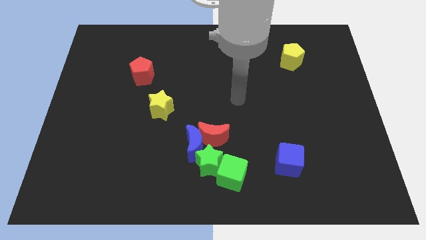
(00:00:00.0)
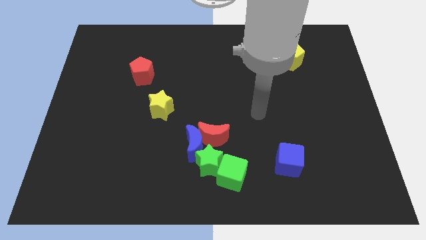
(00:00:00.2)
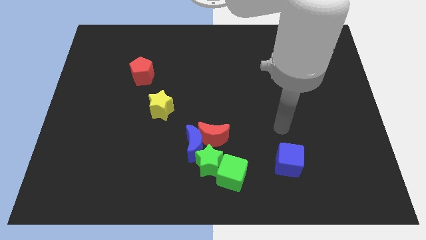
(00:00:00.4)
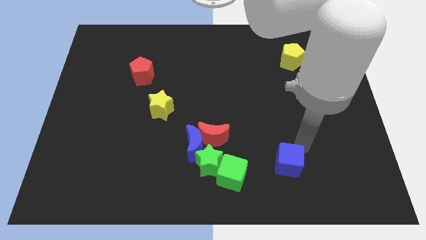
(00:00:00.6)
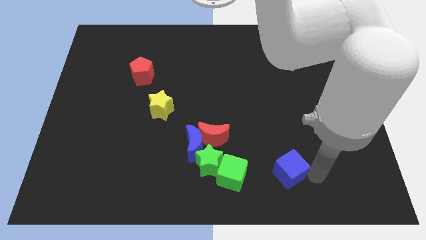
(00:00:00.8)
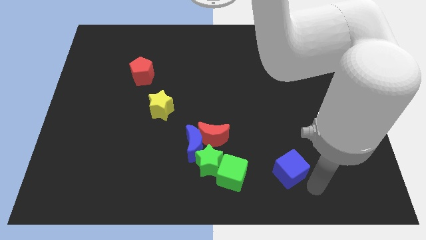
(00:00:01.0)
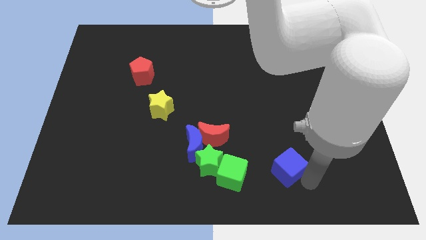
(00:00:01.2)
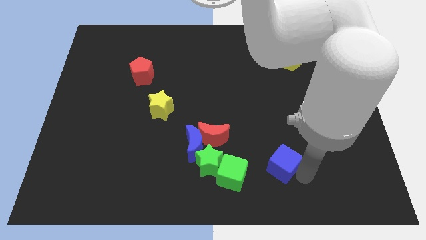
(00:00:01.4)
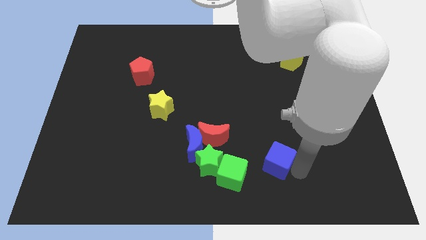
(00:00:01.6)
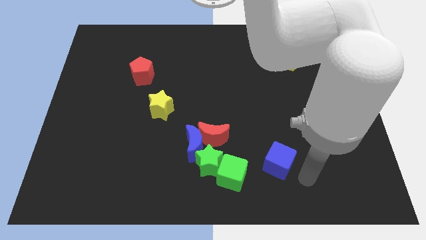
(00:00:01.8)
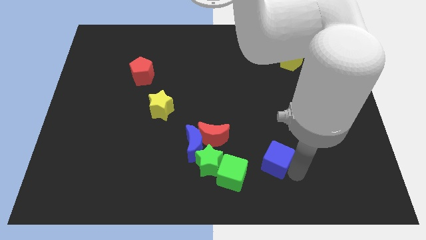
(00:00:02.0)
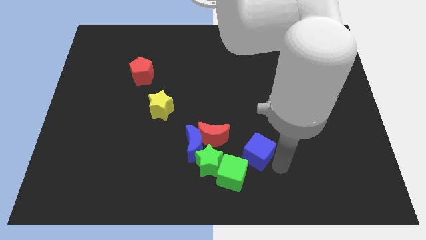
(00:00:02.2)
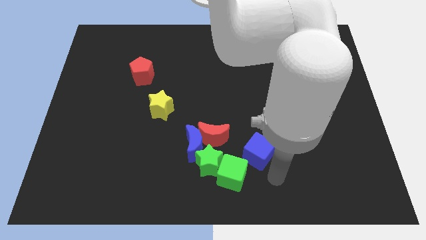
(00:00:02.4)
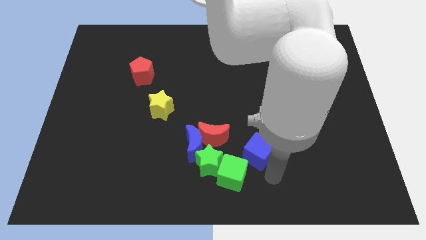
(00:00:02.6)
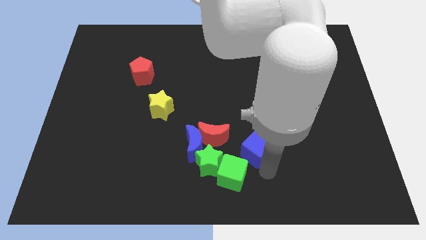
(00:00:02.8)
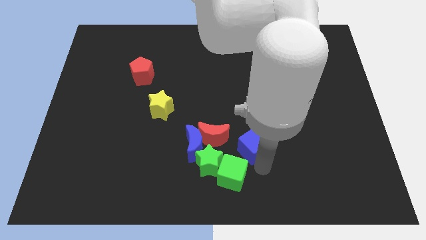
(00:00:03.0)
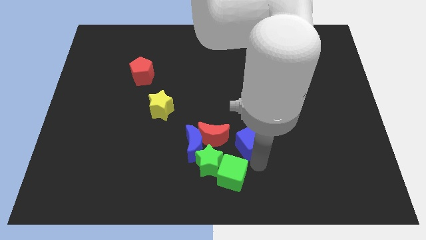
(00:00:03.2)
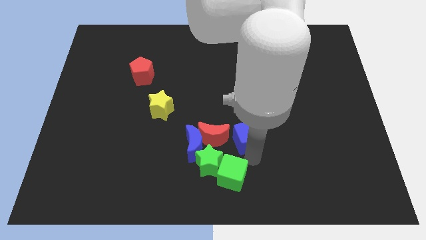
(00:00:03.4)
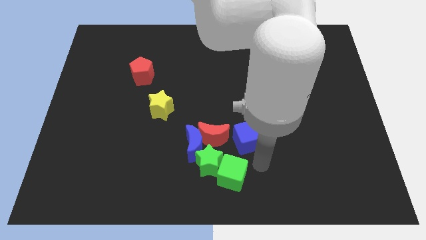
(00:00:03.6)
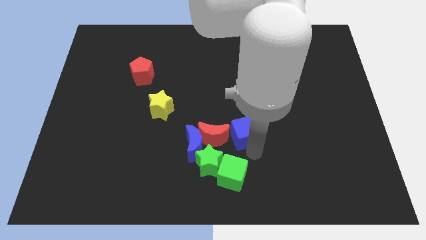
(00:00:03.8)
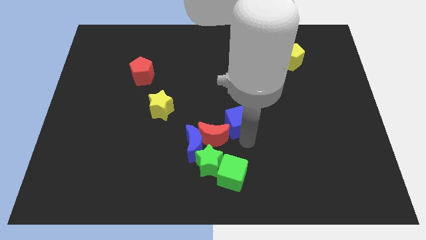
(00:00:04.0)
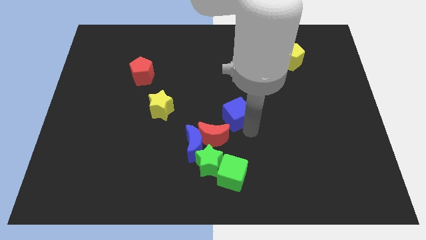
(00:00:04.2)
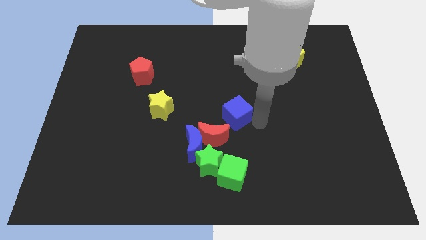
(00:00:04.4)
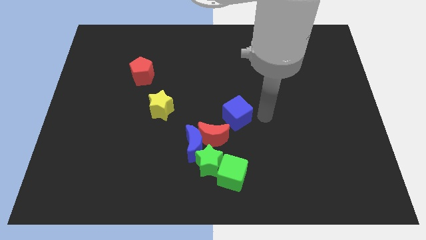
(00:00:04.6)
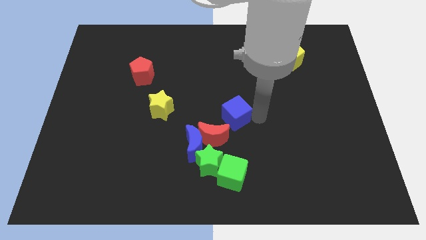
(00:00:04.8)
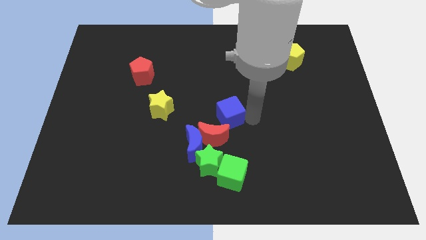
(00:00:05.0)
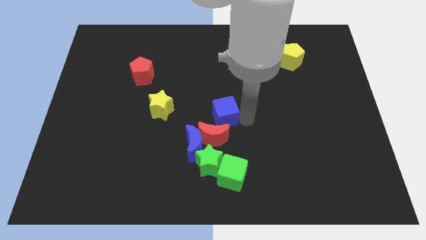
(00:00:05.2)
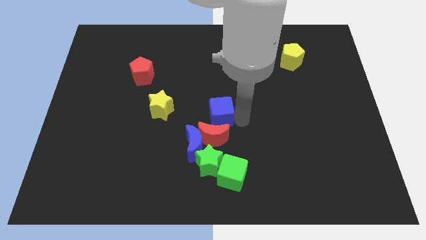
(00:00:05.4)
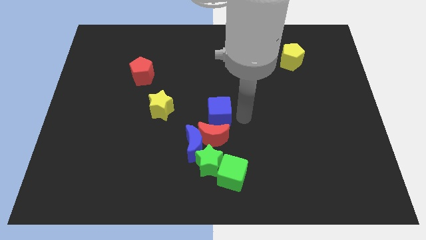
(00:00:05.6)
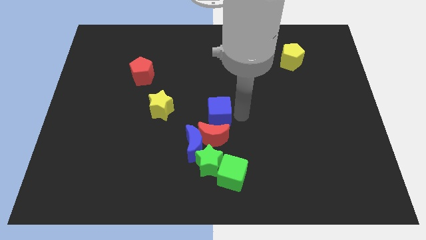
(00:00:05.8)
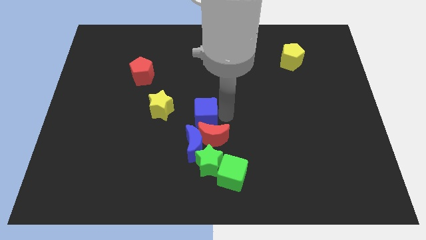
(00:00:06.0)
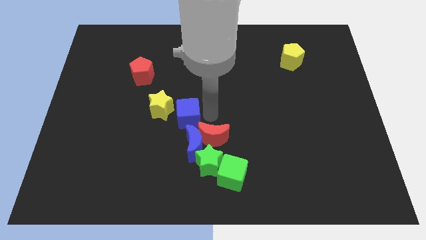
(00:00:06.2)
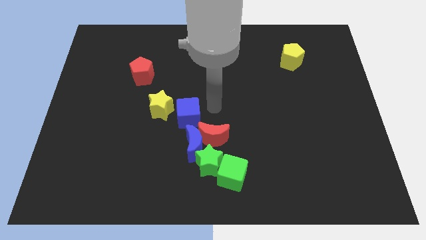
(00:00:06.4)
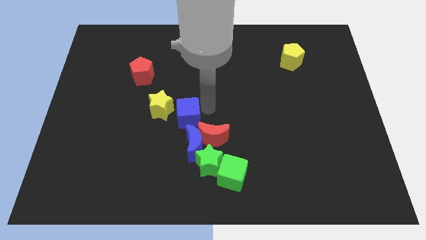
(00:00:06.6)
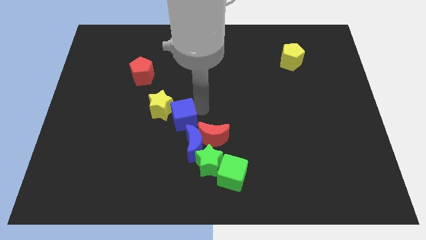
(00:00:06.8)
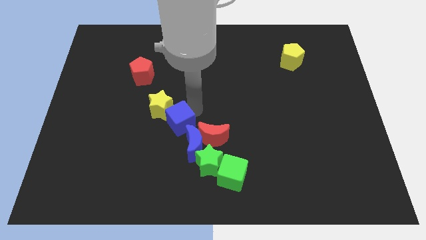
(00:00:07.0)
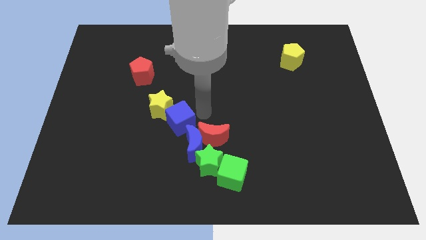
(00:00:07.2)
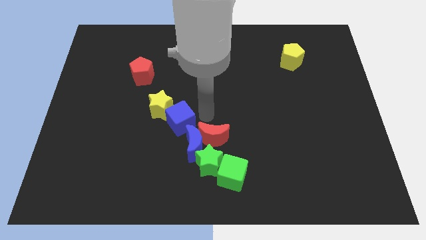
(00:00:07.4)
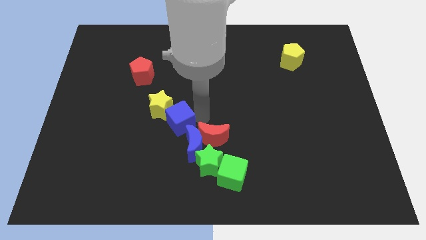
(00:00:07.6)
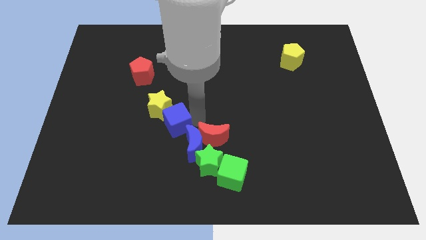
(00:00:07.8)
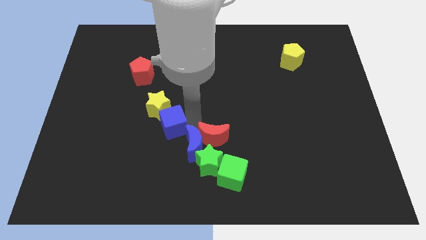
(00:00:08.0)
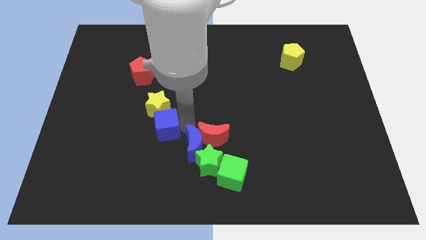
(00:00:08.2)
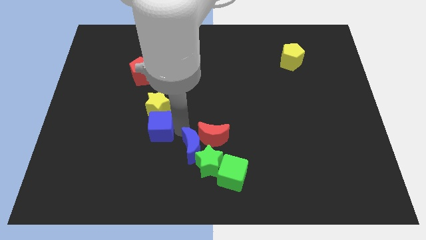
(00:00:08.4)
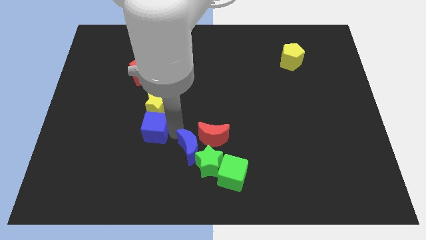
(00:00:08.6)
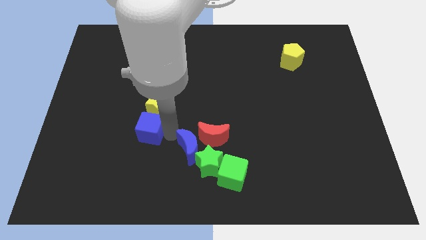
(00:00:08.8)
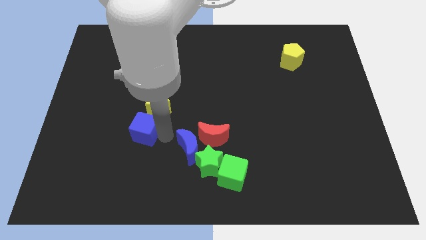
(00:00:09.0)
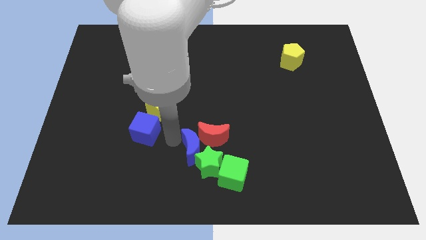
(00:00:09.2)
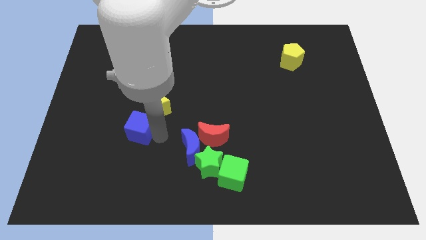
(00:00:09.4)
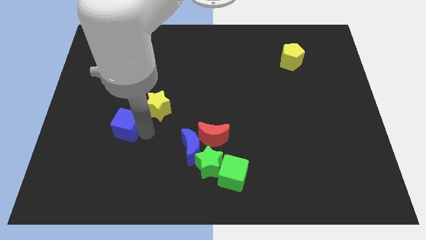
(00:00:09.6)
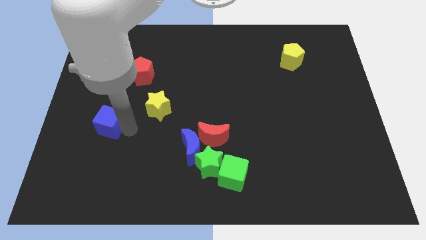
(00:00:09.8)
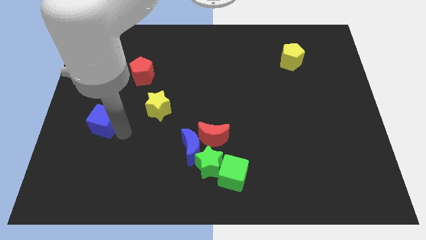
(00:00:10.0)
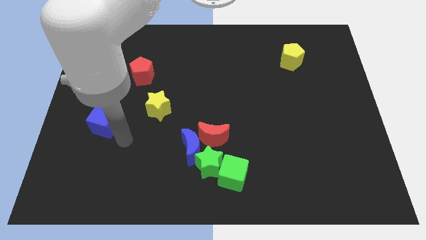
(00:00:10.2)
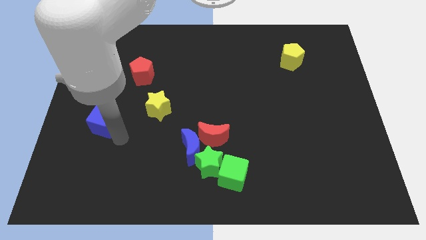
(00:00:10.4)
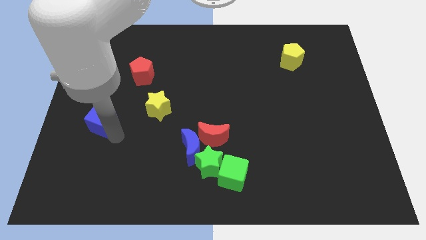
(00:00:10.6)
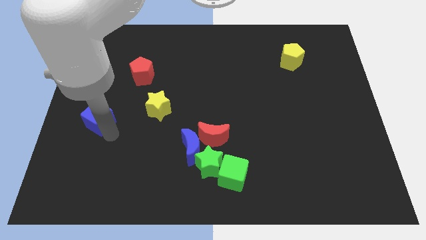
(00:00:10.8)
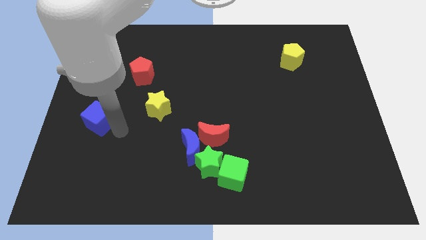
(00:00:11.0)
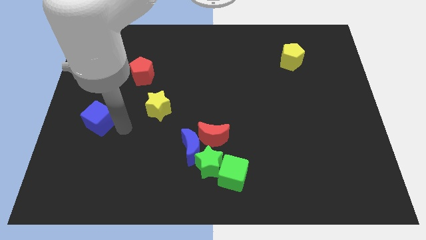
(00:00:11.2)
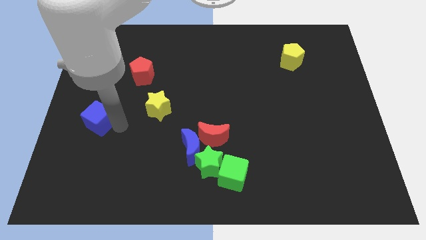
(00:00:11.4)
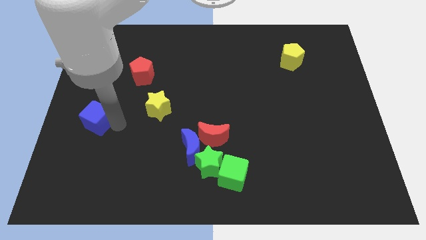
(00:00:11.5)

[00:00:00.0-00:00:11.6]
put the blue cube to the center left

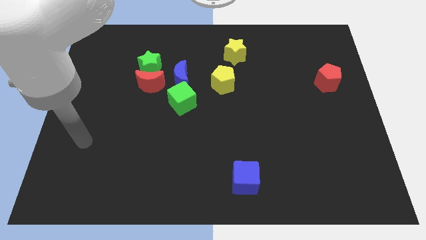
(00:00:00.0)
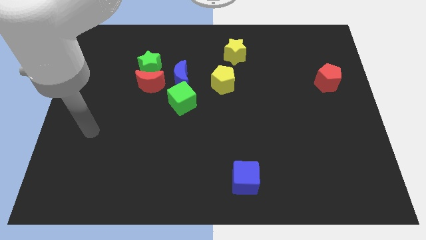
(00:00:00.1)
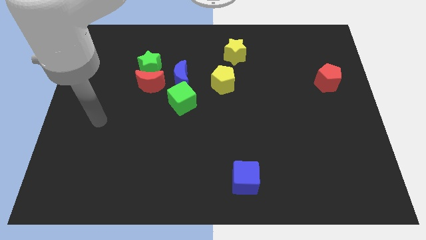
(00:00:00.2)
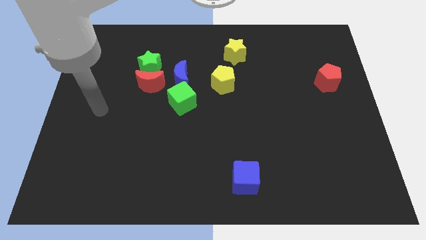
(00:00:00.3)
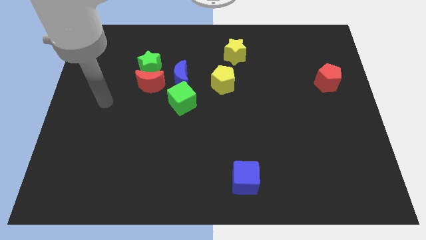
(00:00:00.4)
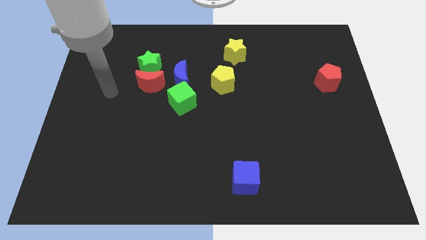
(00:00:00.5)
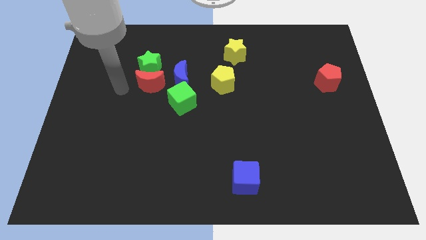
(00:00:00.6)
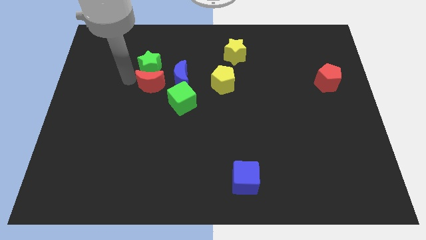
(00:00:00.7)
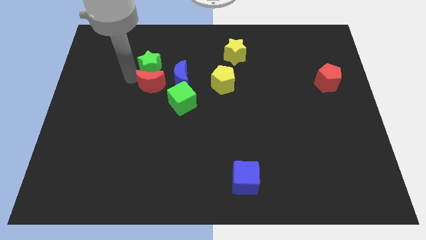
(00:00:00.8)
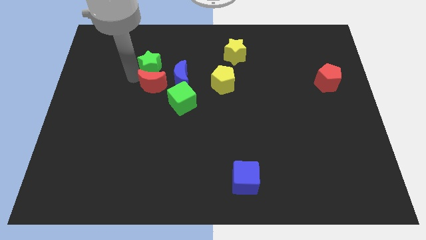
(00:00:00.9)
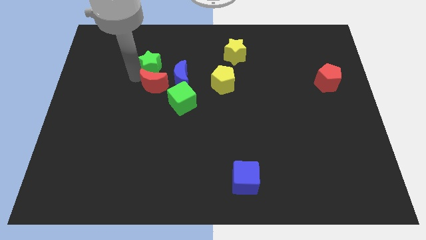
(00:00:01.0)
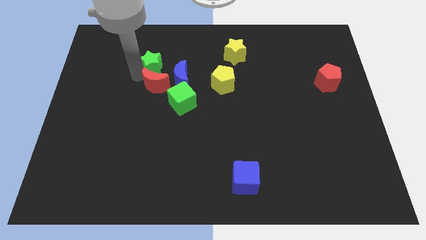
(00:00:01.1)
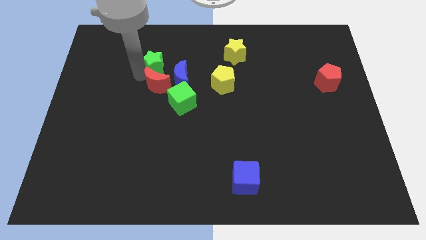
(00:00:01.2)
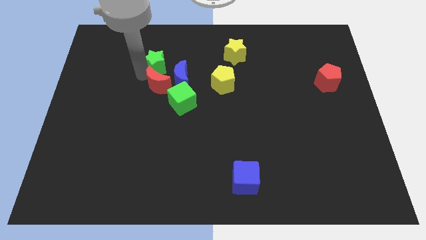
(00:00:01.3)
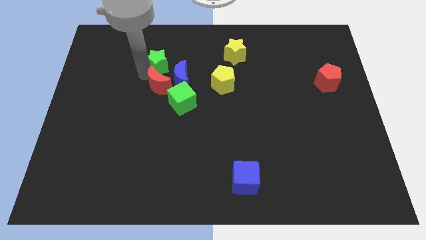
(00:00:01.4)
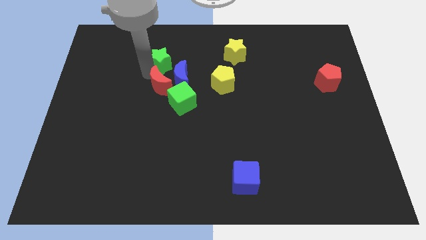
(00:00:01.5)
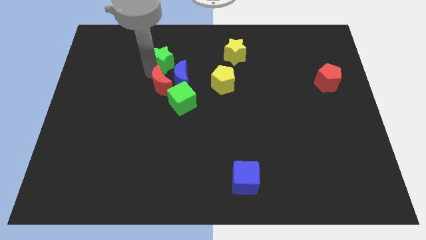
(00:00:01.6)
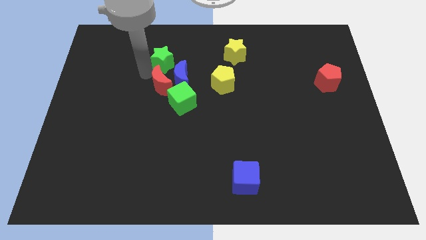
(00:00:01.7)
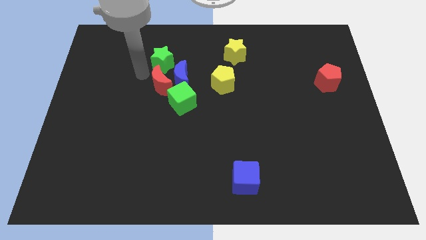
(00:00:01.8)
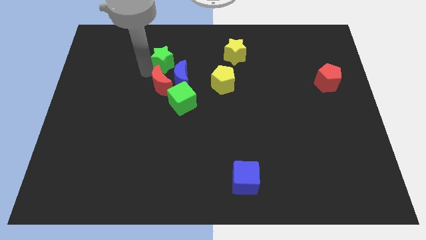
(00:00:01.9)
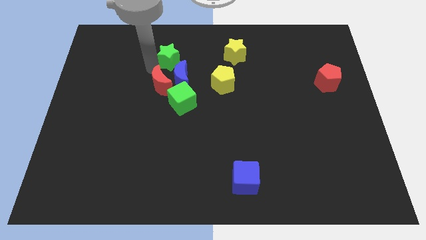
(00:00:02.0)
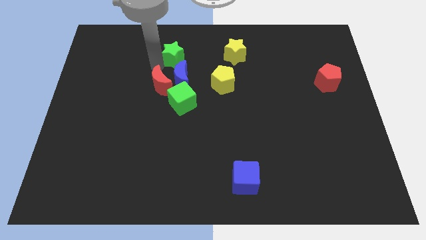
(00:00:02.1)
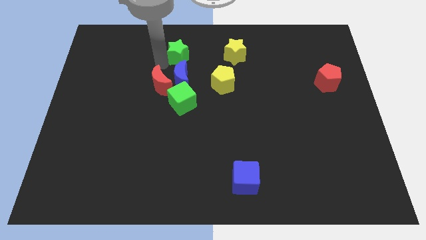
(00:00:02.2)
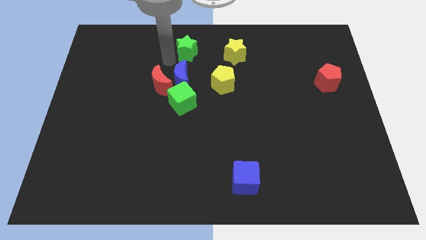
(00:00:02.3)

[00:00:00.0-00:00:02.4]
push the green star to the top
